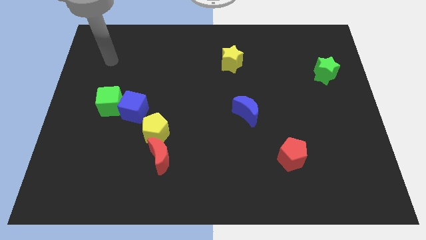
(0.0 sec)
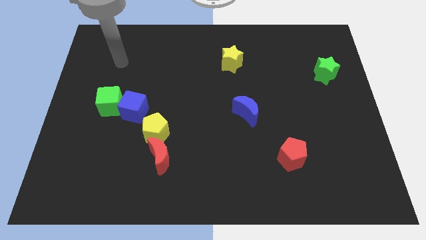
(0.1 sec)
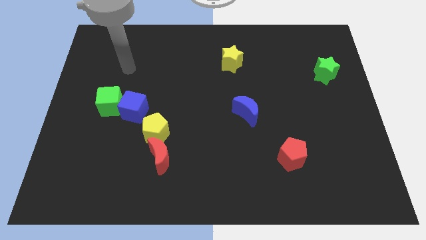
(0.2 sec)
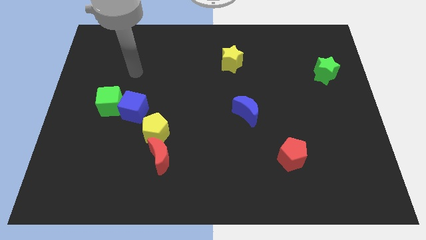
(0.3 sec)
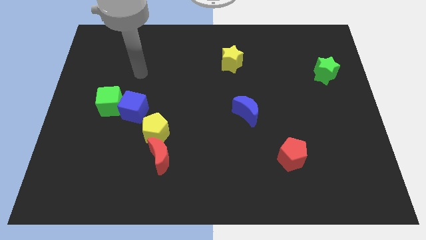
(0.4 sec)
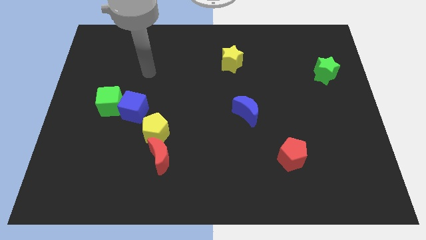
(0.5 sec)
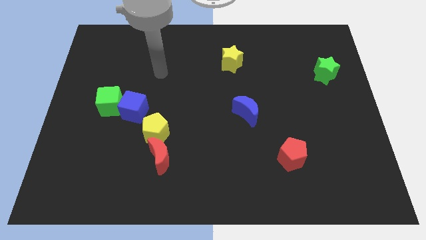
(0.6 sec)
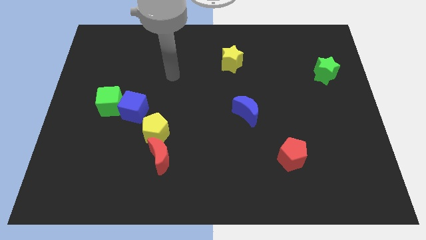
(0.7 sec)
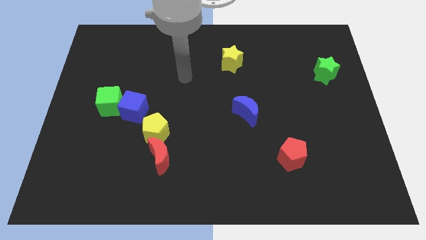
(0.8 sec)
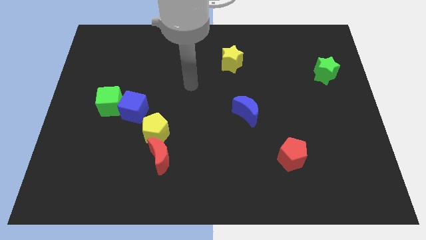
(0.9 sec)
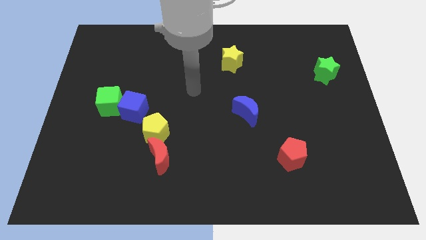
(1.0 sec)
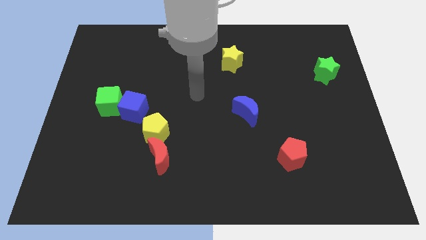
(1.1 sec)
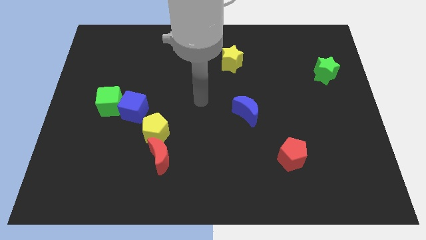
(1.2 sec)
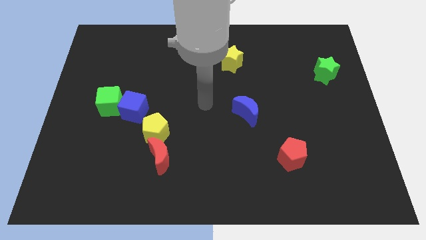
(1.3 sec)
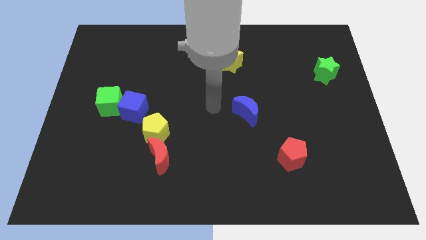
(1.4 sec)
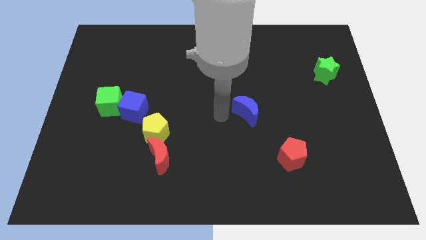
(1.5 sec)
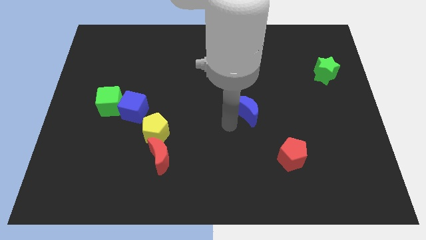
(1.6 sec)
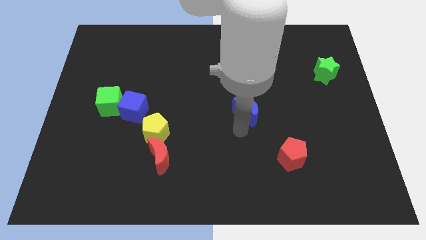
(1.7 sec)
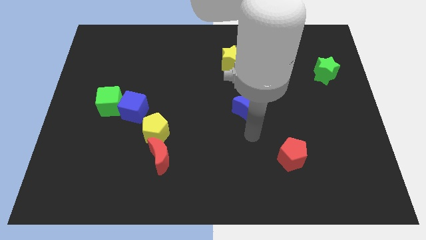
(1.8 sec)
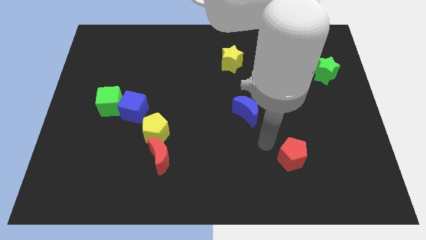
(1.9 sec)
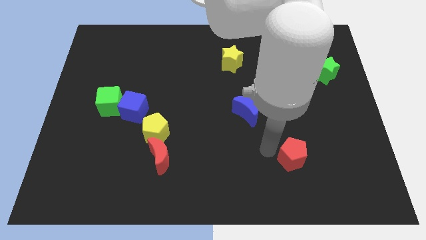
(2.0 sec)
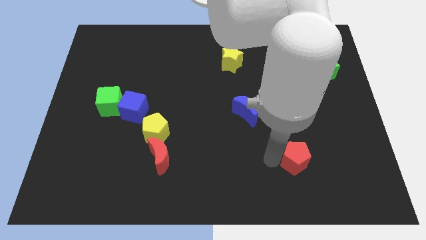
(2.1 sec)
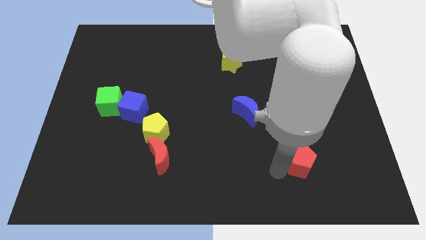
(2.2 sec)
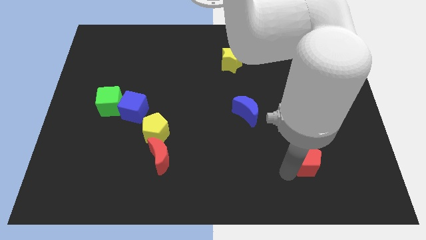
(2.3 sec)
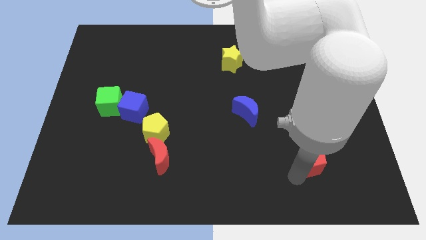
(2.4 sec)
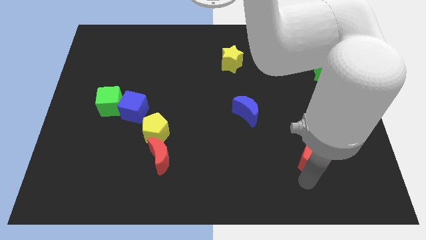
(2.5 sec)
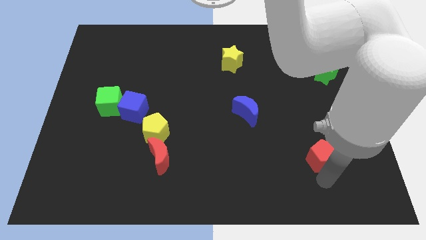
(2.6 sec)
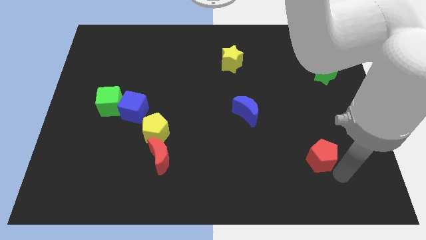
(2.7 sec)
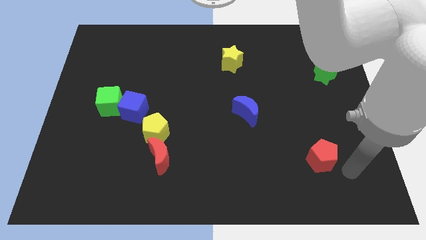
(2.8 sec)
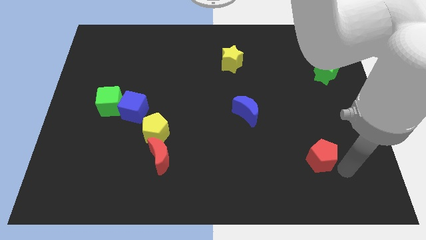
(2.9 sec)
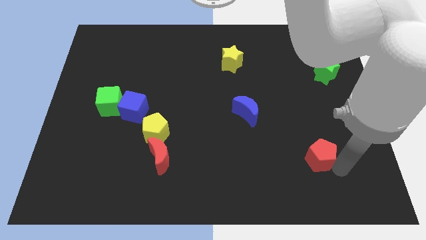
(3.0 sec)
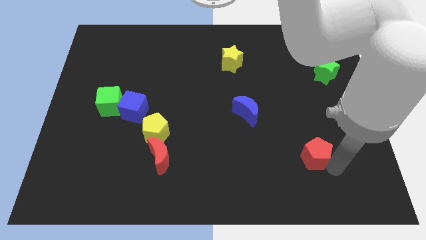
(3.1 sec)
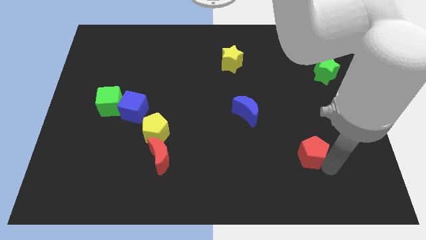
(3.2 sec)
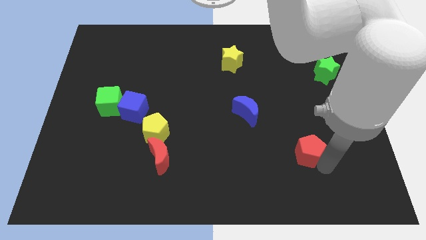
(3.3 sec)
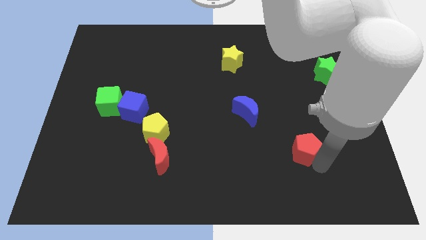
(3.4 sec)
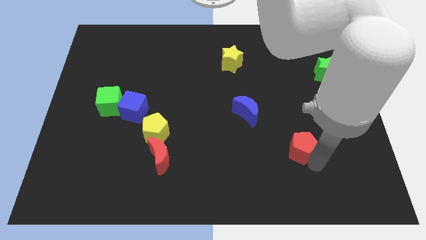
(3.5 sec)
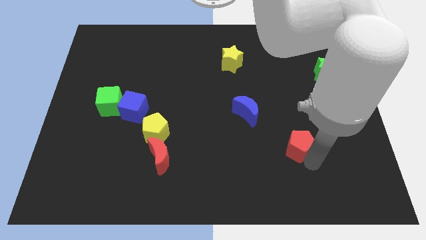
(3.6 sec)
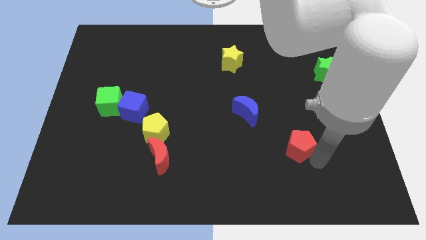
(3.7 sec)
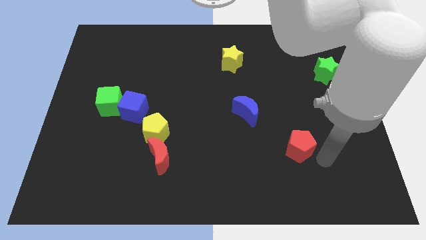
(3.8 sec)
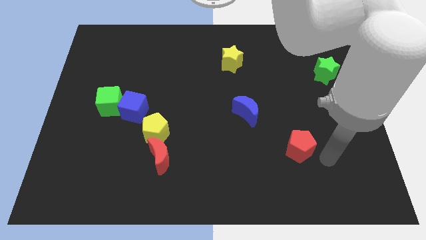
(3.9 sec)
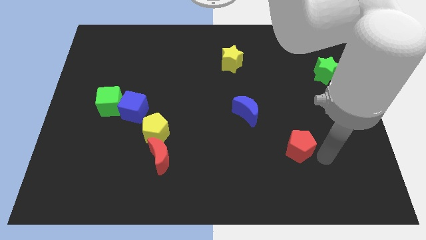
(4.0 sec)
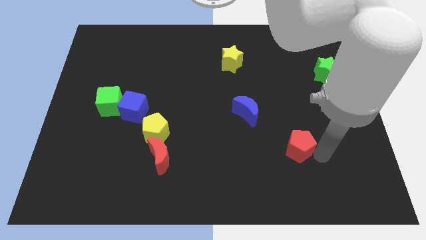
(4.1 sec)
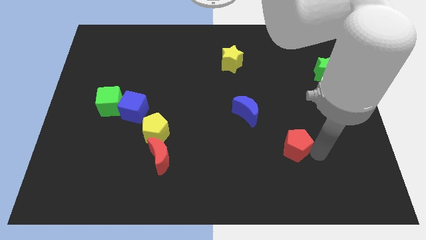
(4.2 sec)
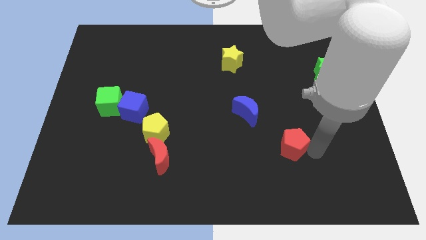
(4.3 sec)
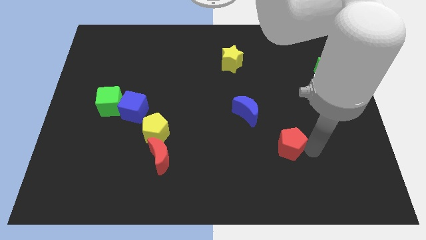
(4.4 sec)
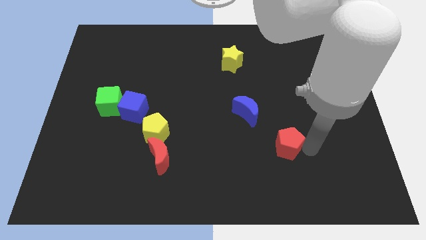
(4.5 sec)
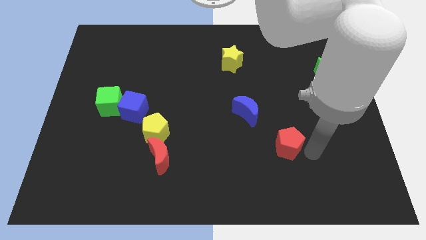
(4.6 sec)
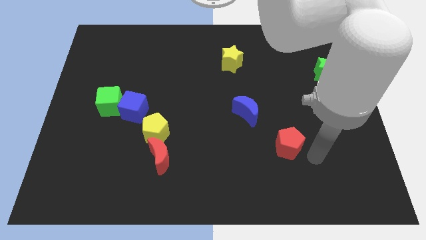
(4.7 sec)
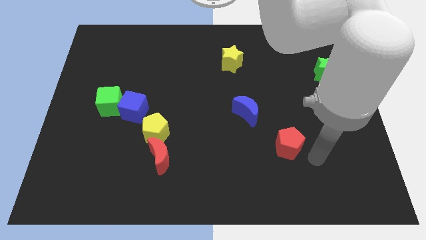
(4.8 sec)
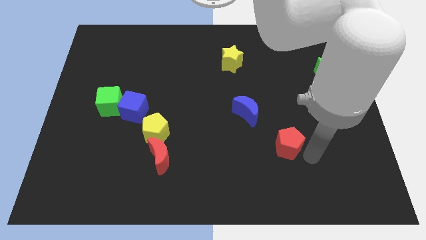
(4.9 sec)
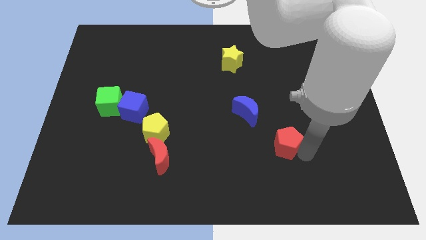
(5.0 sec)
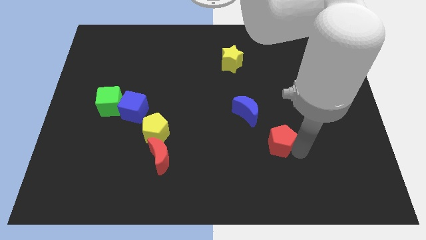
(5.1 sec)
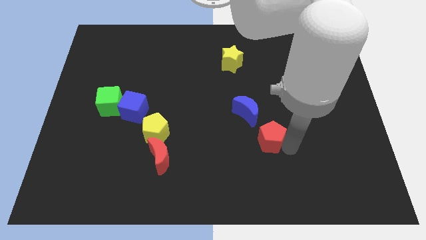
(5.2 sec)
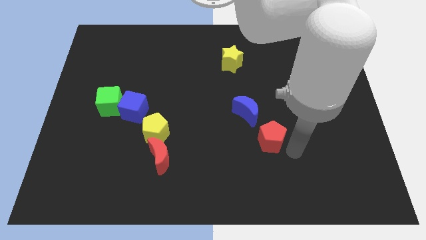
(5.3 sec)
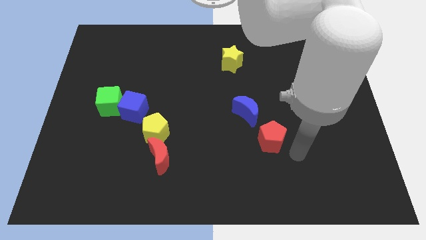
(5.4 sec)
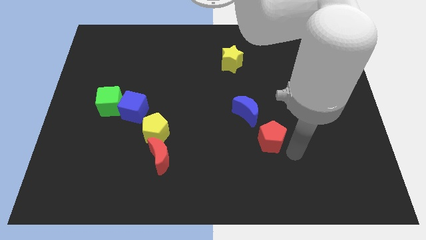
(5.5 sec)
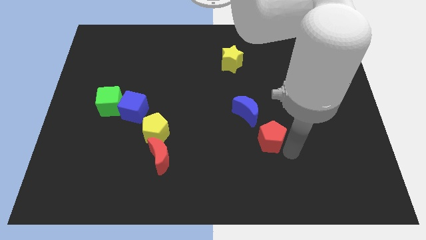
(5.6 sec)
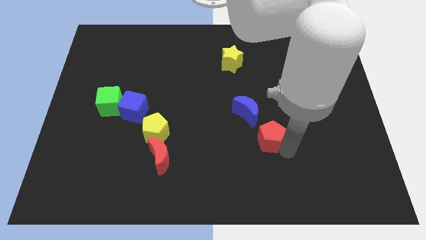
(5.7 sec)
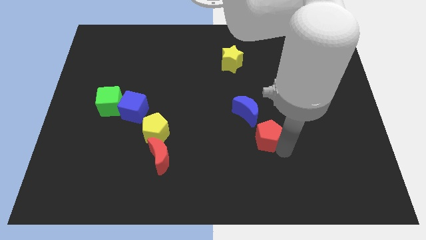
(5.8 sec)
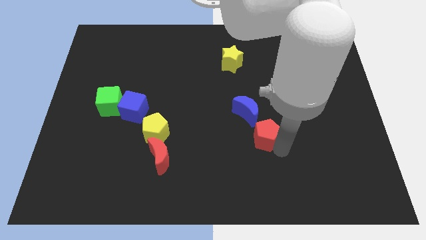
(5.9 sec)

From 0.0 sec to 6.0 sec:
move the red pentagon a little bit upwards and to the left

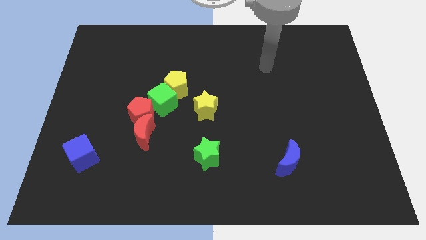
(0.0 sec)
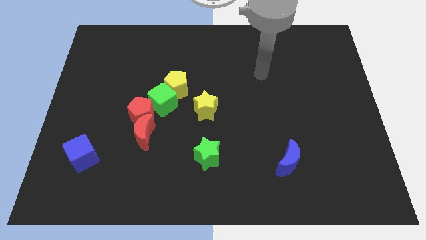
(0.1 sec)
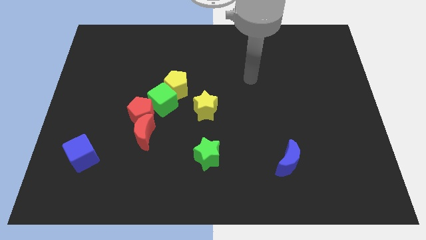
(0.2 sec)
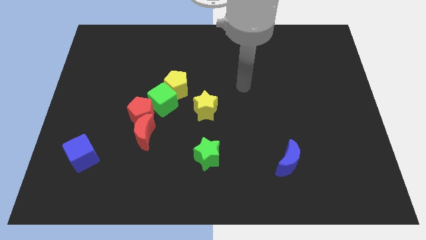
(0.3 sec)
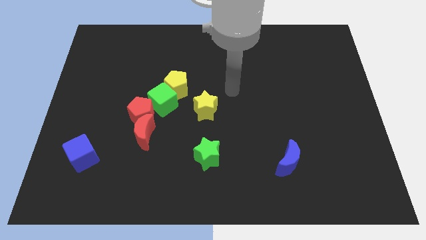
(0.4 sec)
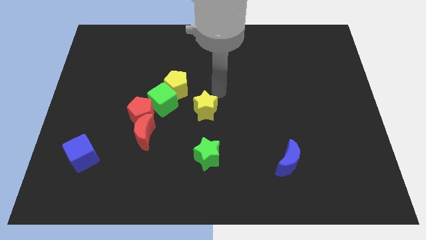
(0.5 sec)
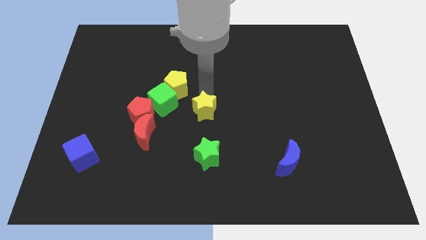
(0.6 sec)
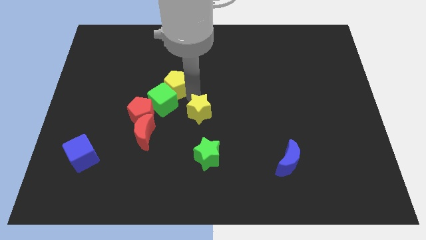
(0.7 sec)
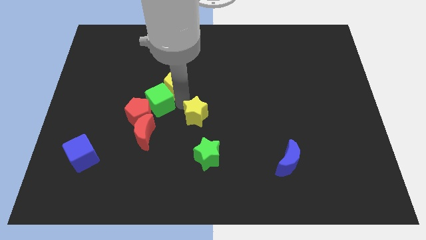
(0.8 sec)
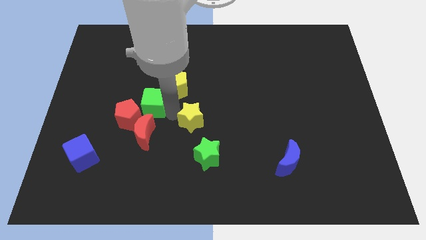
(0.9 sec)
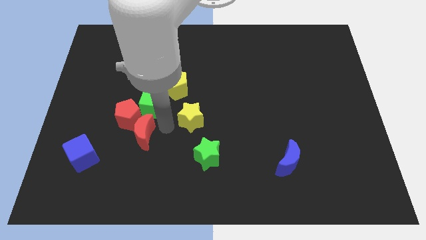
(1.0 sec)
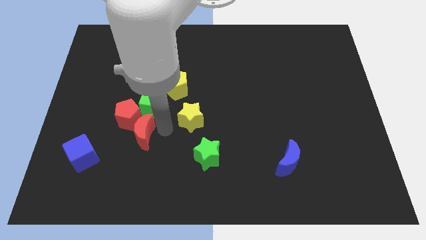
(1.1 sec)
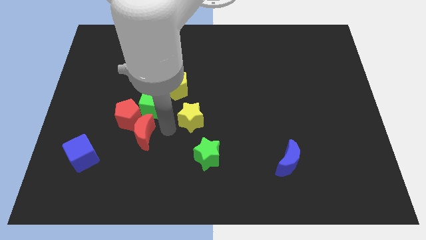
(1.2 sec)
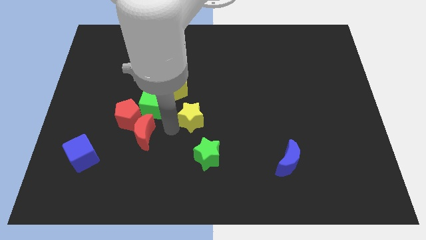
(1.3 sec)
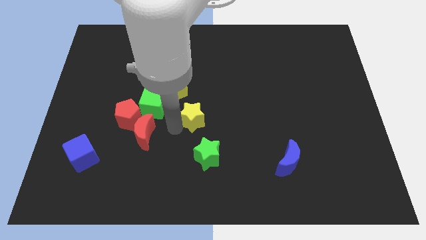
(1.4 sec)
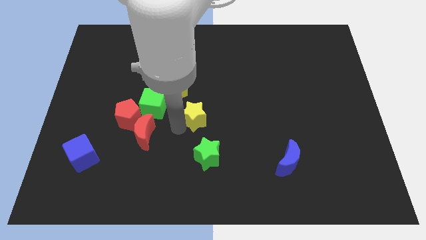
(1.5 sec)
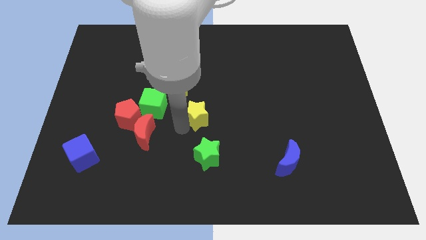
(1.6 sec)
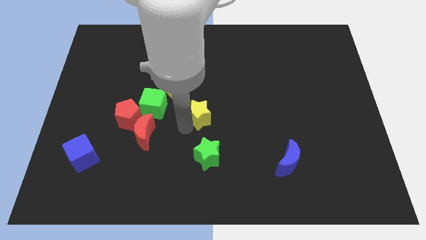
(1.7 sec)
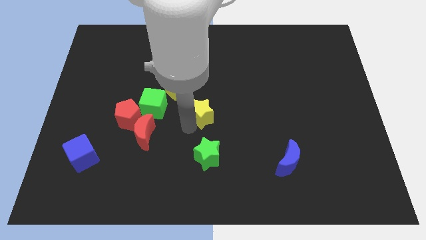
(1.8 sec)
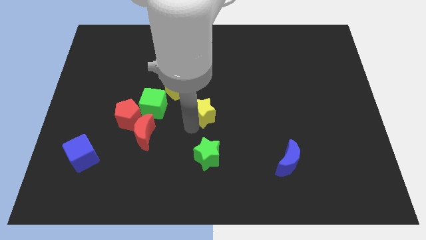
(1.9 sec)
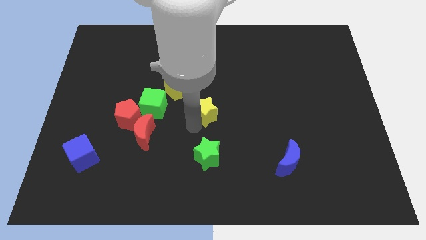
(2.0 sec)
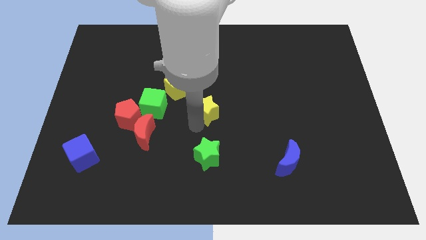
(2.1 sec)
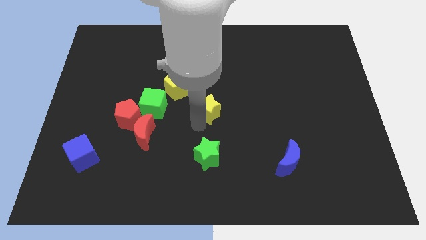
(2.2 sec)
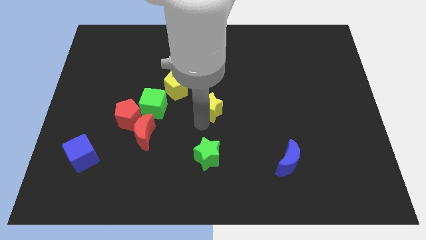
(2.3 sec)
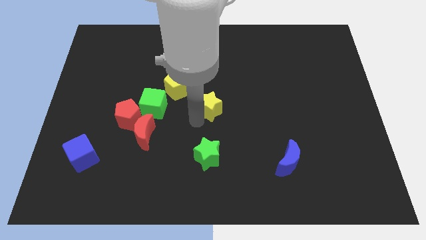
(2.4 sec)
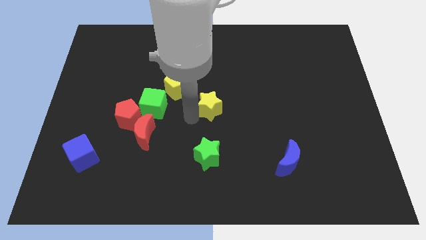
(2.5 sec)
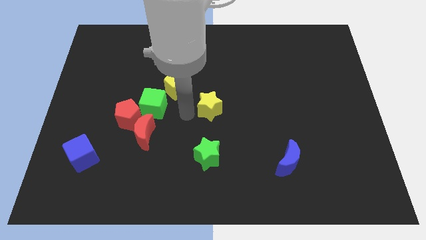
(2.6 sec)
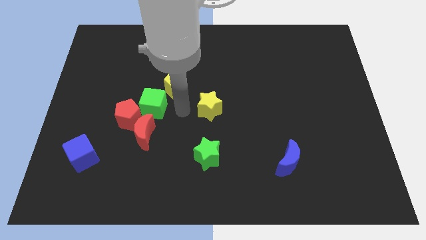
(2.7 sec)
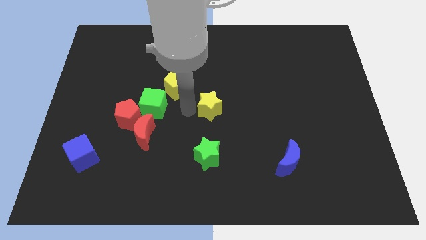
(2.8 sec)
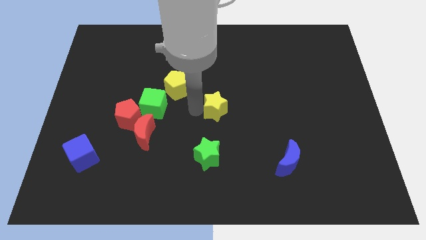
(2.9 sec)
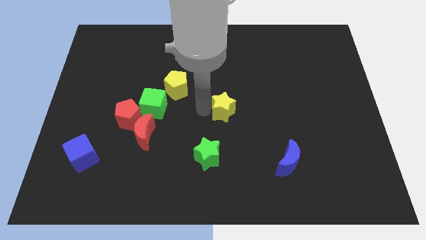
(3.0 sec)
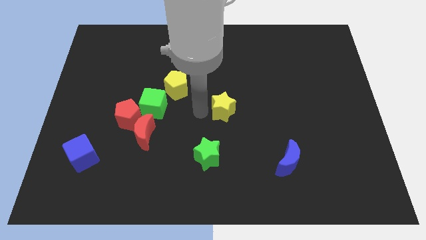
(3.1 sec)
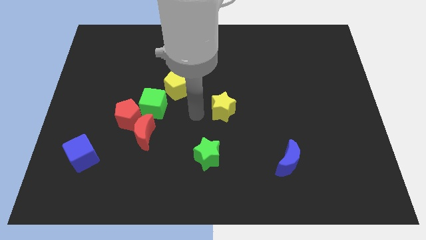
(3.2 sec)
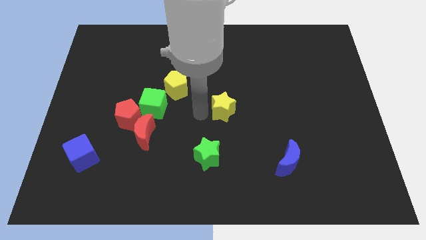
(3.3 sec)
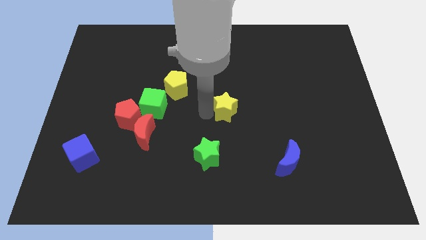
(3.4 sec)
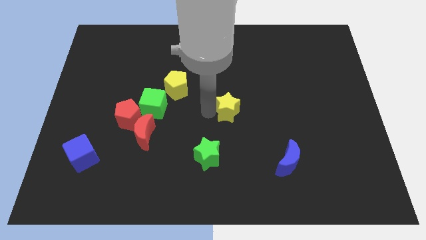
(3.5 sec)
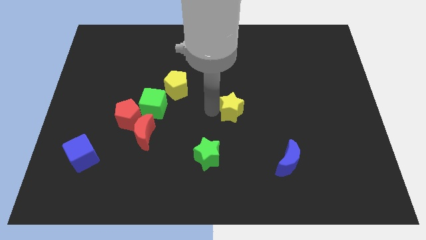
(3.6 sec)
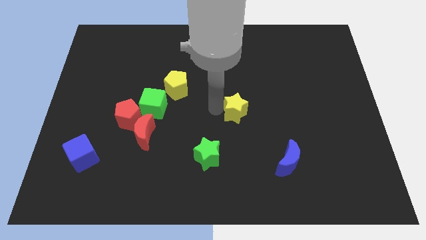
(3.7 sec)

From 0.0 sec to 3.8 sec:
slightly move the yellow star to the right
